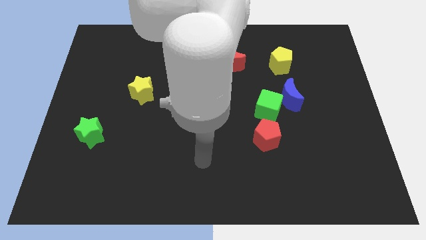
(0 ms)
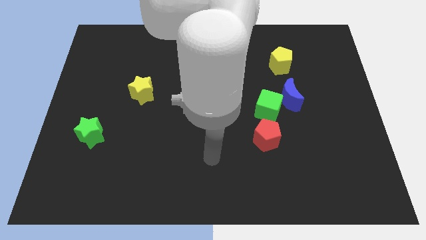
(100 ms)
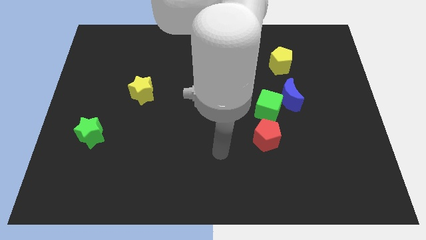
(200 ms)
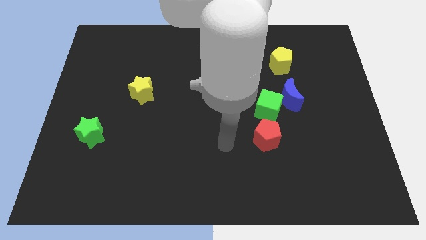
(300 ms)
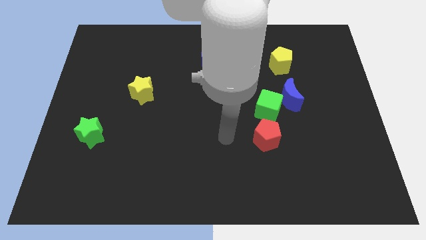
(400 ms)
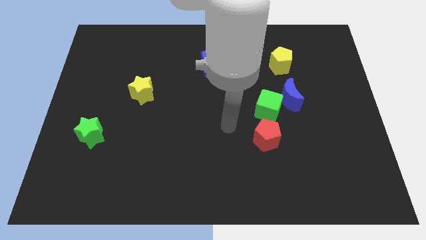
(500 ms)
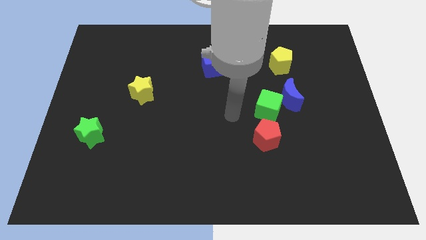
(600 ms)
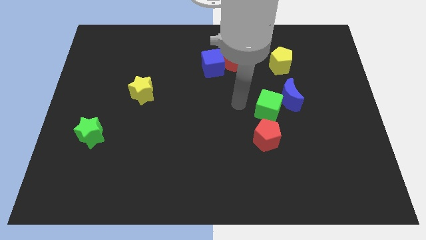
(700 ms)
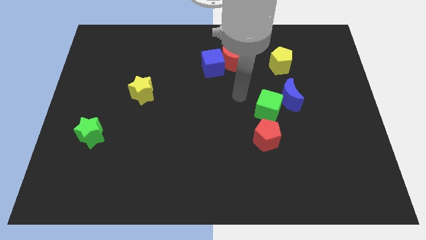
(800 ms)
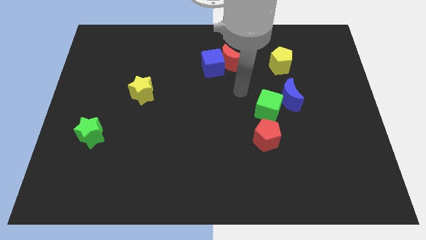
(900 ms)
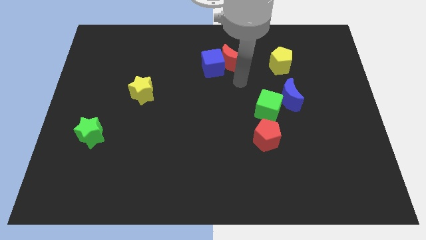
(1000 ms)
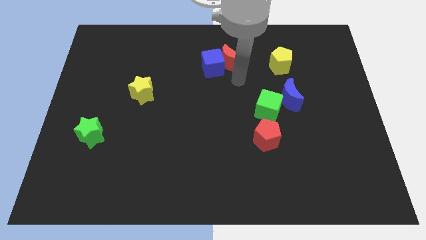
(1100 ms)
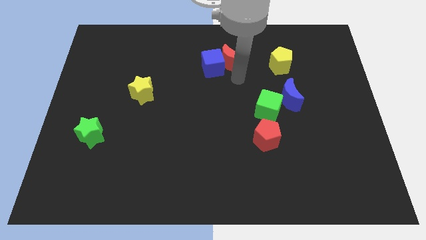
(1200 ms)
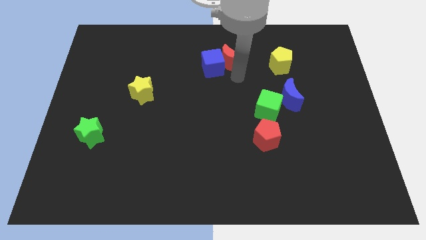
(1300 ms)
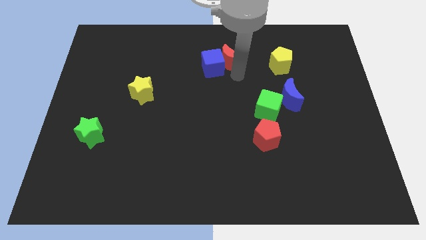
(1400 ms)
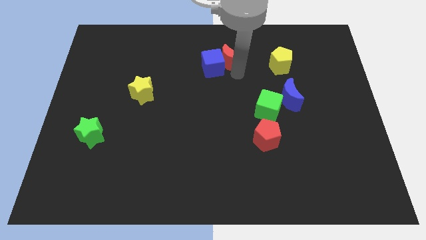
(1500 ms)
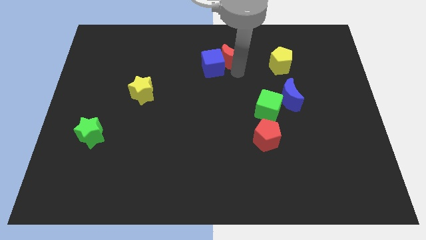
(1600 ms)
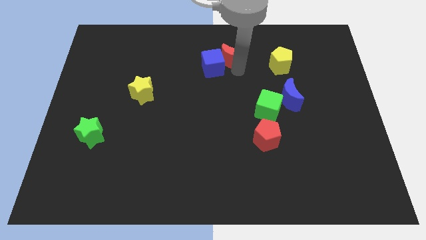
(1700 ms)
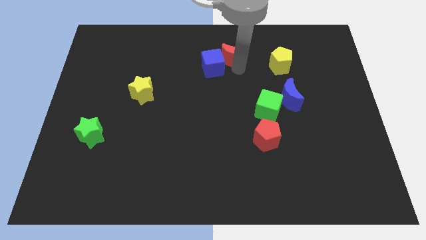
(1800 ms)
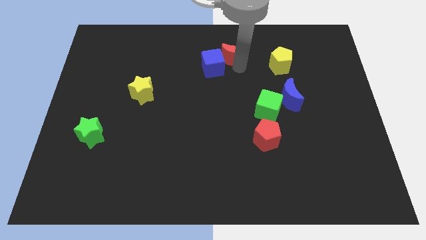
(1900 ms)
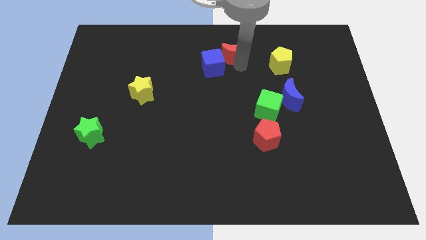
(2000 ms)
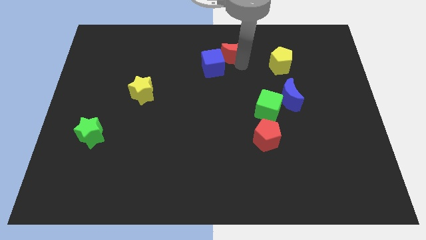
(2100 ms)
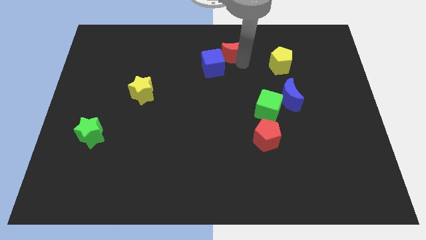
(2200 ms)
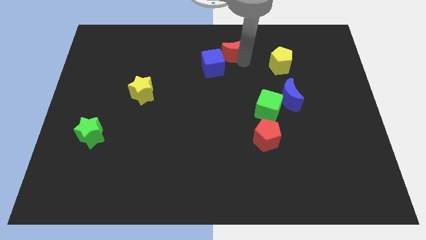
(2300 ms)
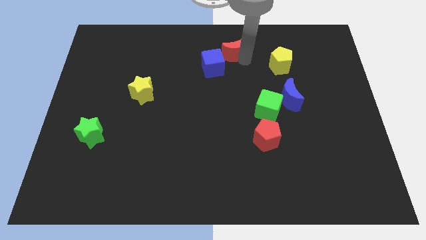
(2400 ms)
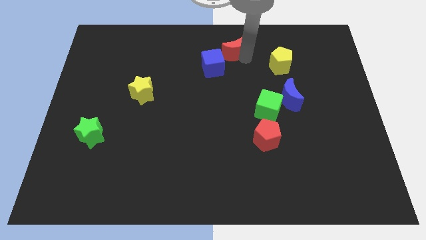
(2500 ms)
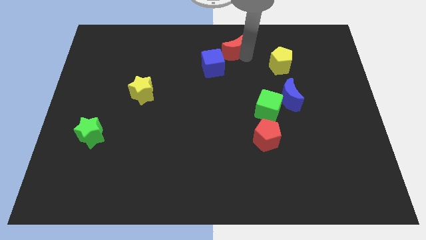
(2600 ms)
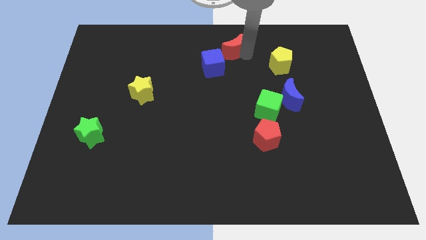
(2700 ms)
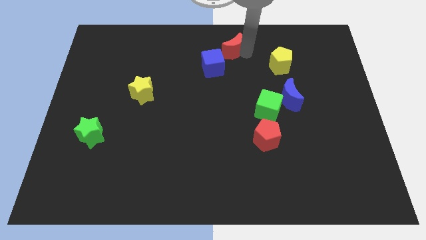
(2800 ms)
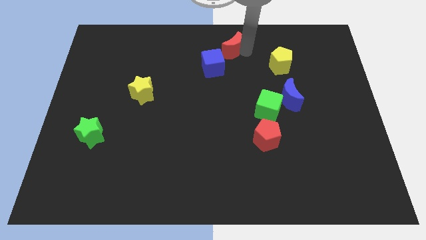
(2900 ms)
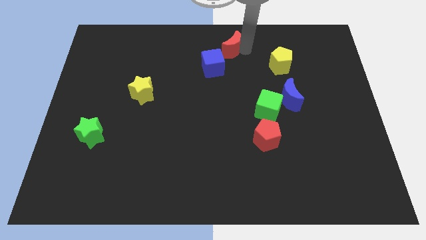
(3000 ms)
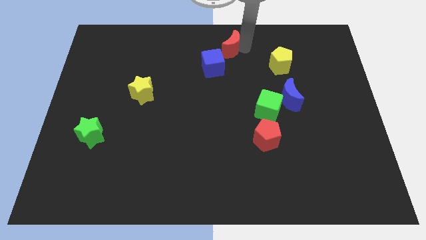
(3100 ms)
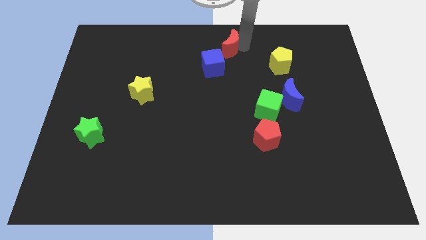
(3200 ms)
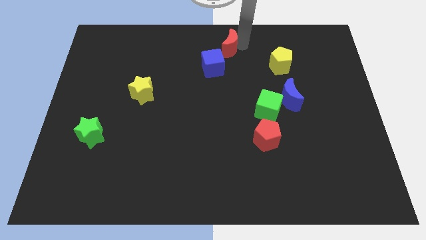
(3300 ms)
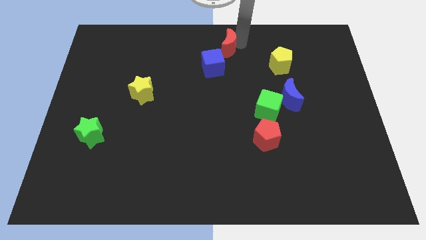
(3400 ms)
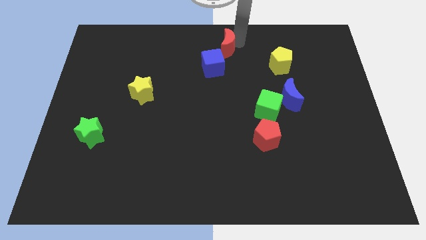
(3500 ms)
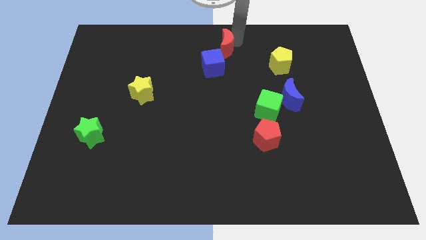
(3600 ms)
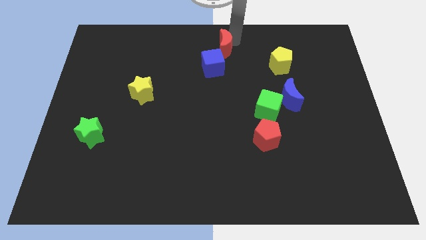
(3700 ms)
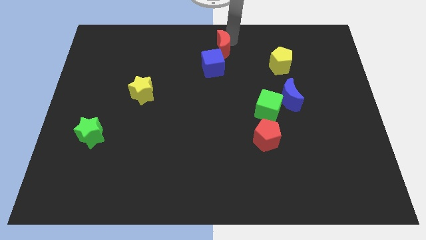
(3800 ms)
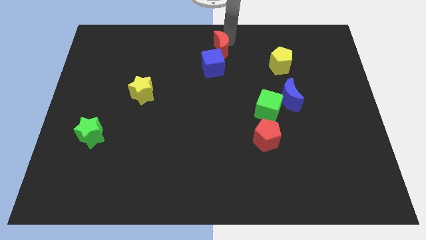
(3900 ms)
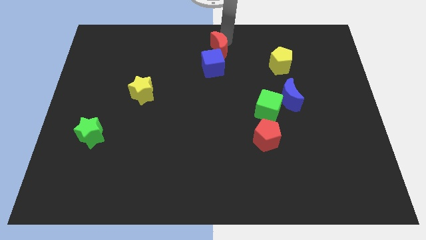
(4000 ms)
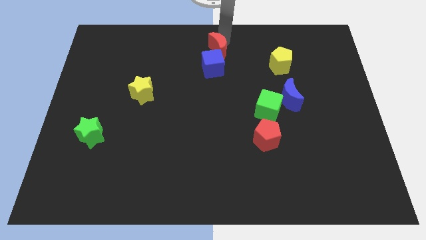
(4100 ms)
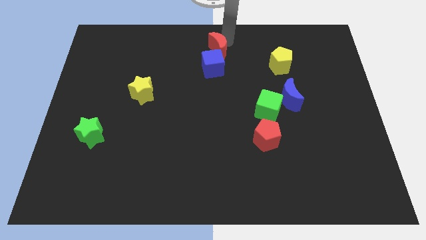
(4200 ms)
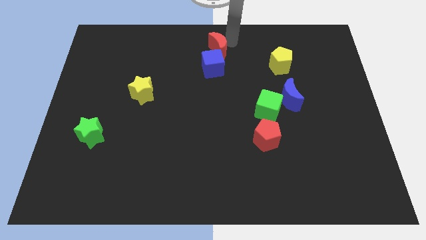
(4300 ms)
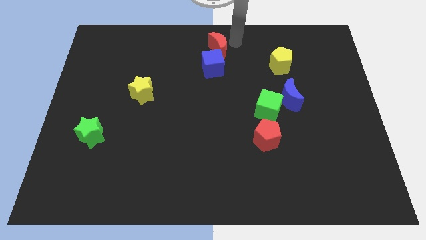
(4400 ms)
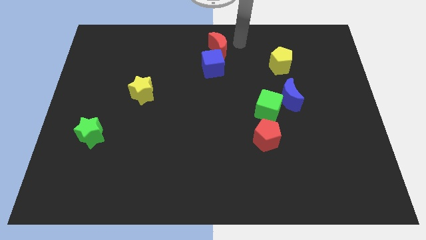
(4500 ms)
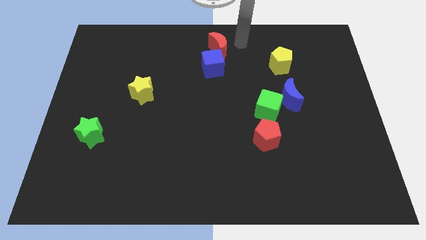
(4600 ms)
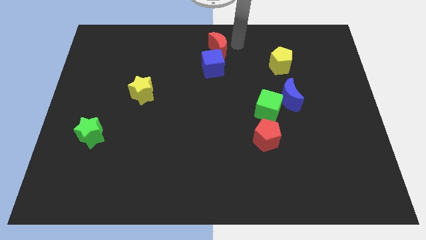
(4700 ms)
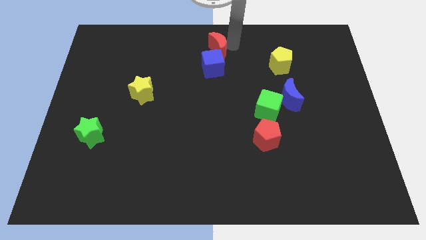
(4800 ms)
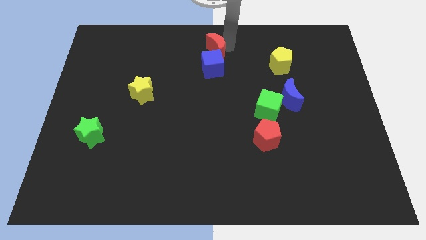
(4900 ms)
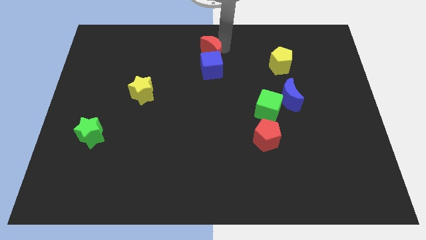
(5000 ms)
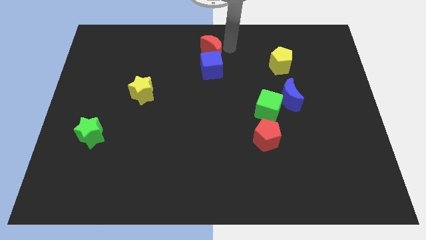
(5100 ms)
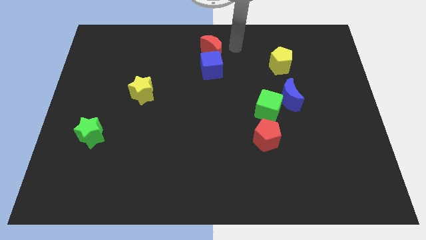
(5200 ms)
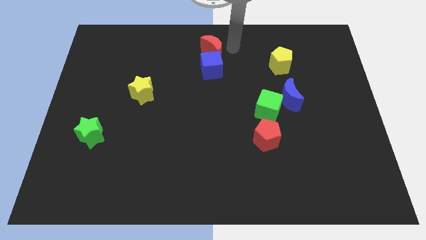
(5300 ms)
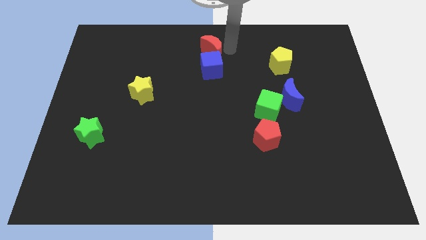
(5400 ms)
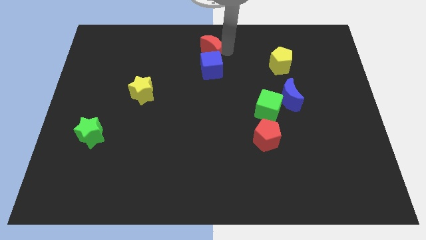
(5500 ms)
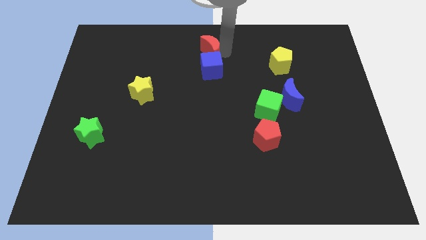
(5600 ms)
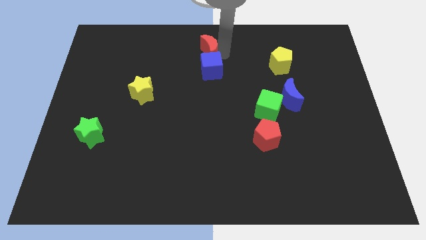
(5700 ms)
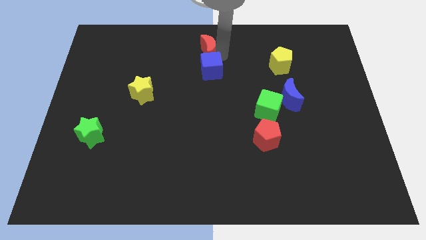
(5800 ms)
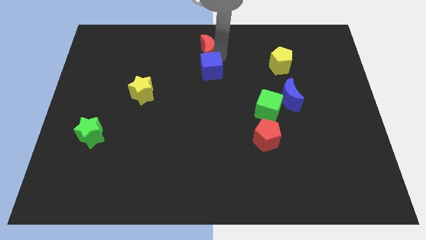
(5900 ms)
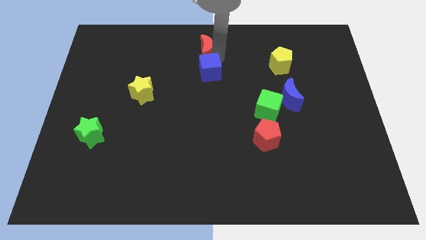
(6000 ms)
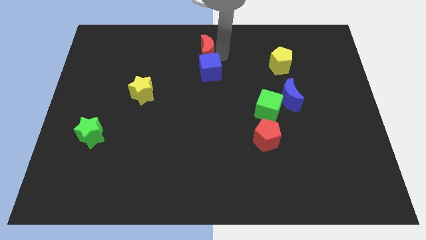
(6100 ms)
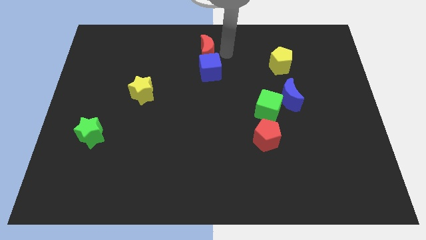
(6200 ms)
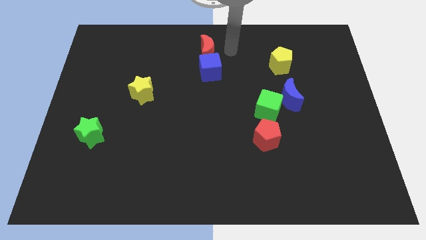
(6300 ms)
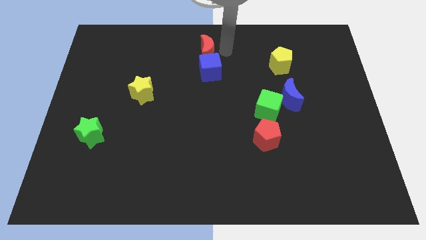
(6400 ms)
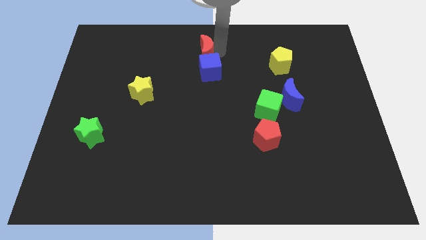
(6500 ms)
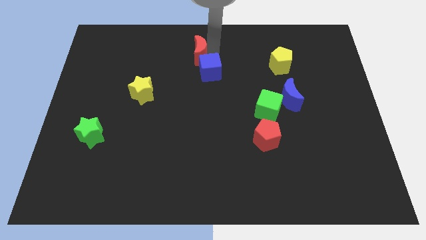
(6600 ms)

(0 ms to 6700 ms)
slightly slide the red moon to the left

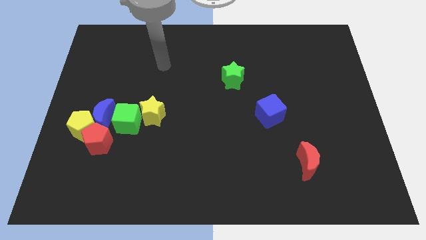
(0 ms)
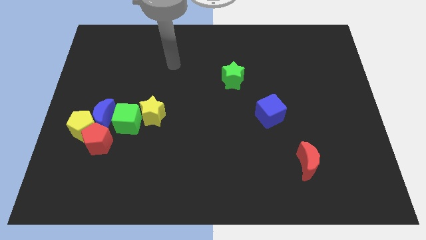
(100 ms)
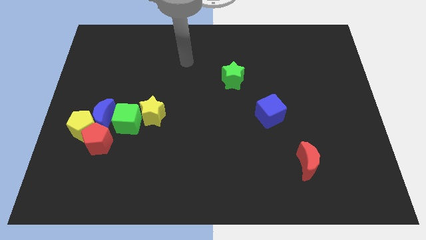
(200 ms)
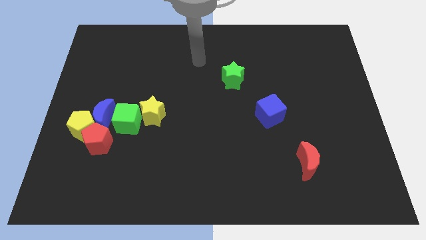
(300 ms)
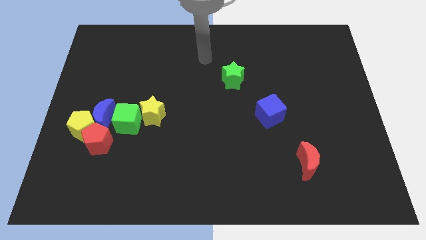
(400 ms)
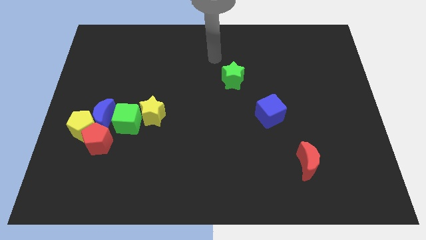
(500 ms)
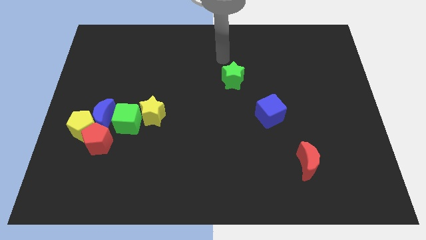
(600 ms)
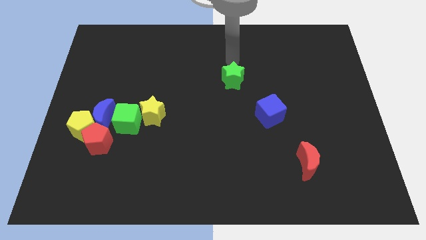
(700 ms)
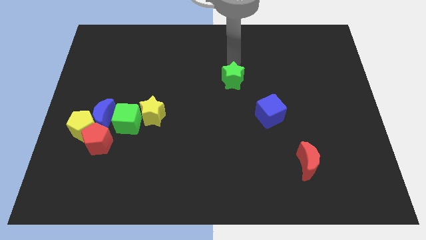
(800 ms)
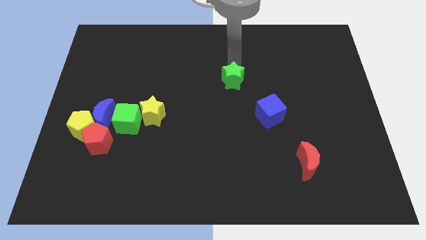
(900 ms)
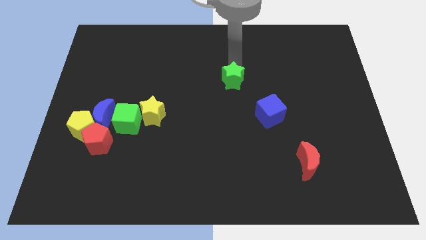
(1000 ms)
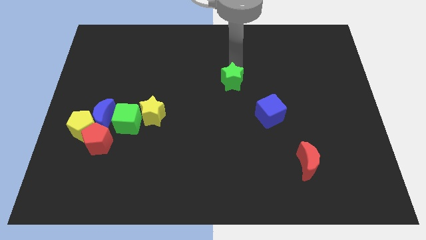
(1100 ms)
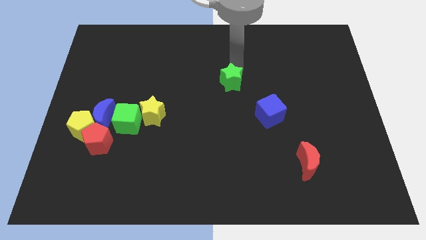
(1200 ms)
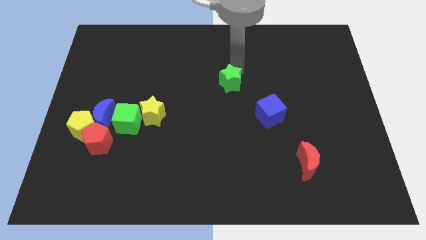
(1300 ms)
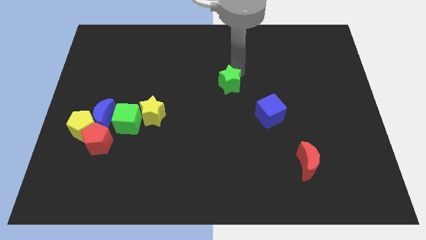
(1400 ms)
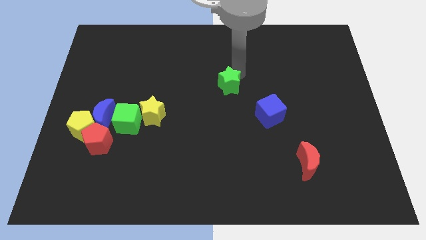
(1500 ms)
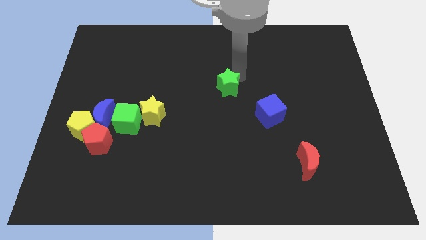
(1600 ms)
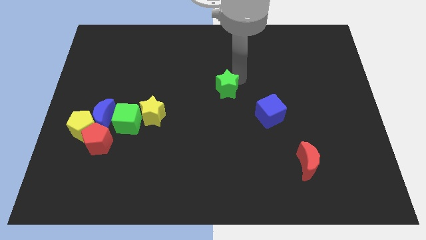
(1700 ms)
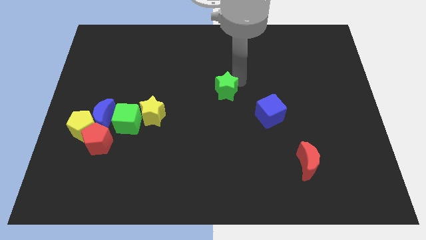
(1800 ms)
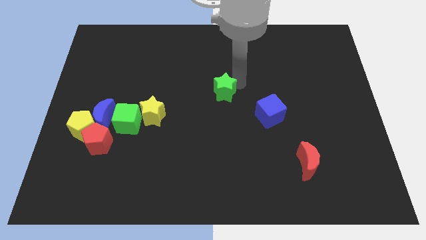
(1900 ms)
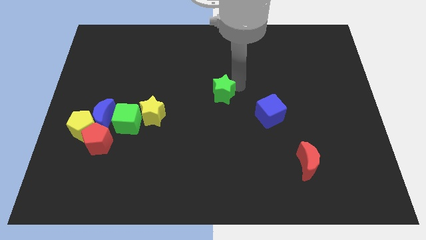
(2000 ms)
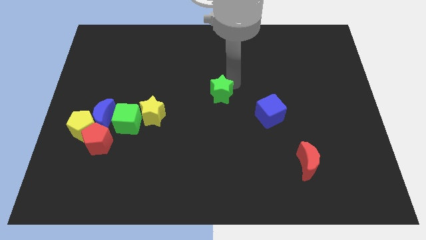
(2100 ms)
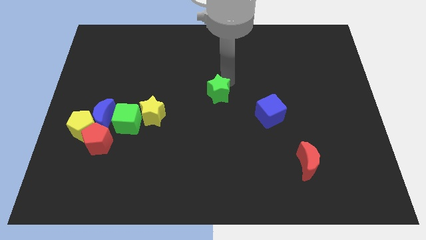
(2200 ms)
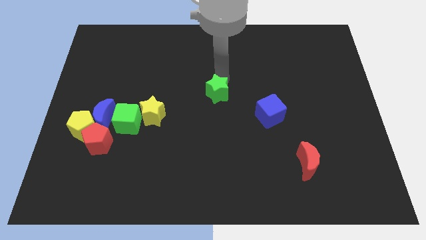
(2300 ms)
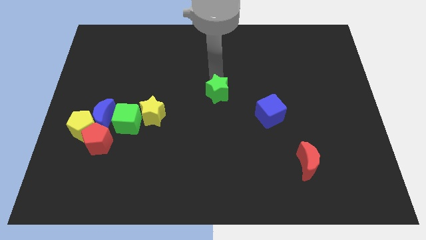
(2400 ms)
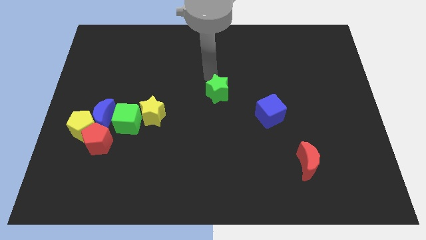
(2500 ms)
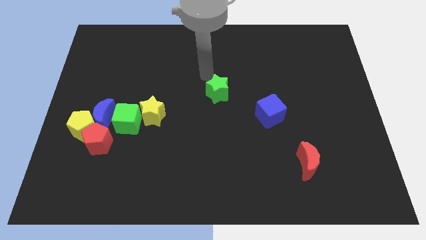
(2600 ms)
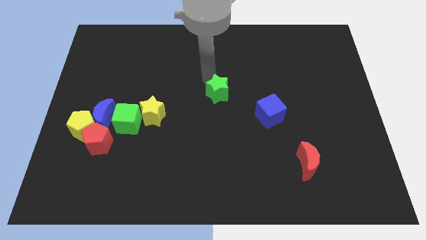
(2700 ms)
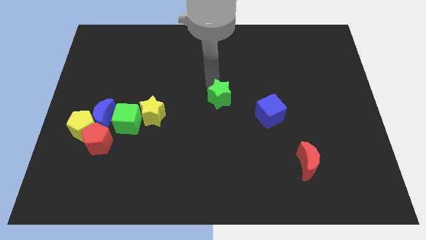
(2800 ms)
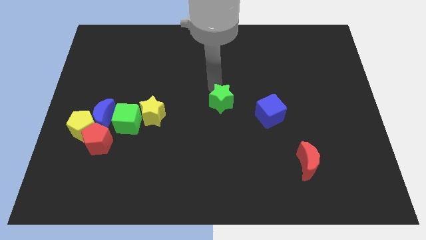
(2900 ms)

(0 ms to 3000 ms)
slightly slide the green star downwards
